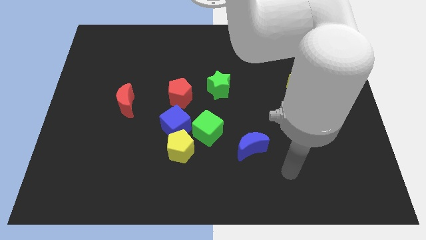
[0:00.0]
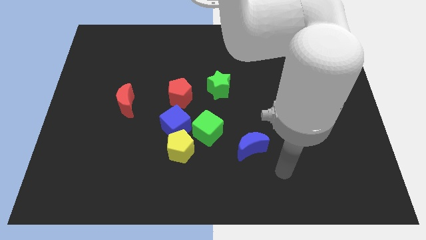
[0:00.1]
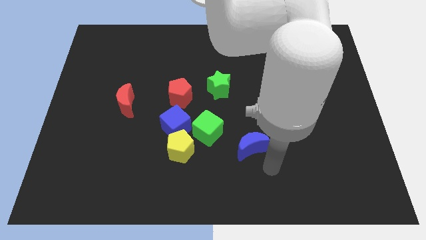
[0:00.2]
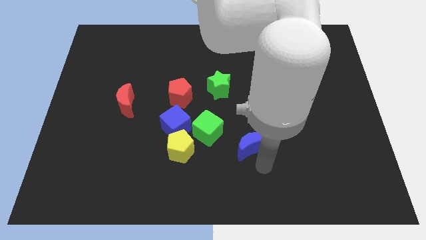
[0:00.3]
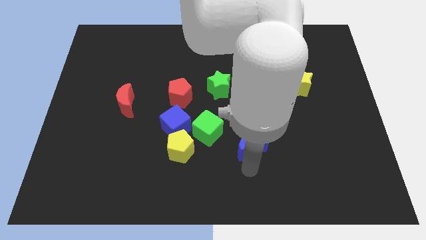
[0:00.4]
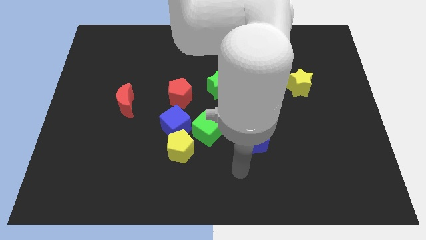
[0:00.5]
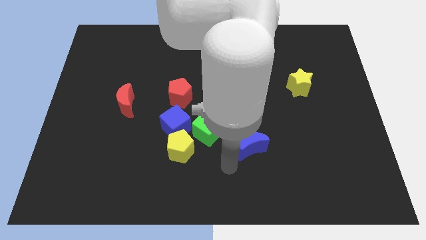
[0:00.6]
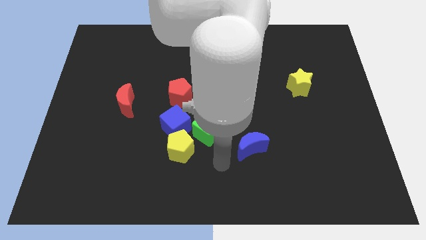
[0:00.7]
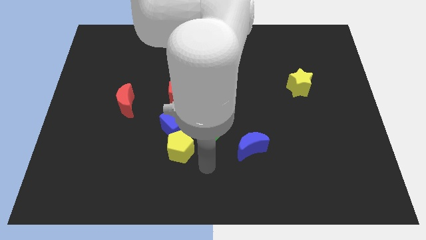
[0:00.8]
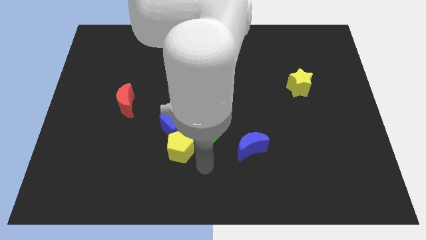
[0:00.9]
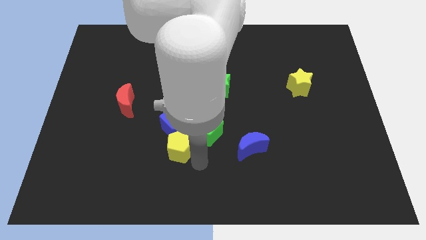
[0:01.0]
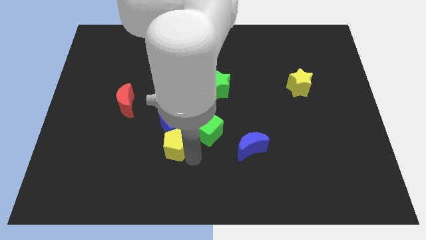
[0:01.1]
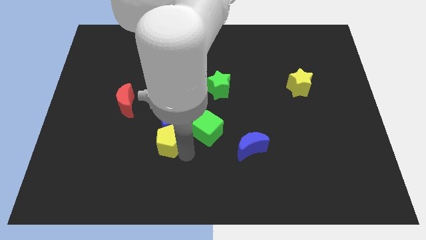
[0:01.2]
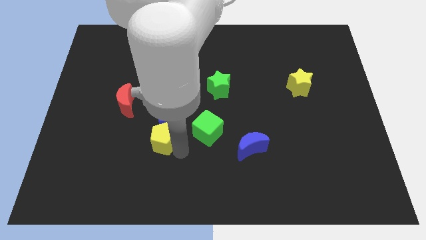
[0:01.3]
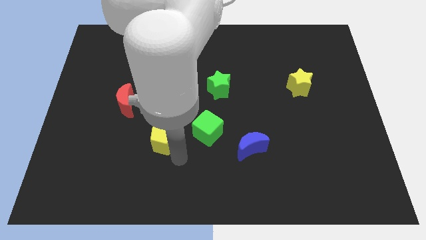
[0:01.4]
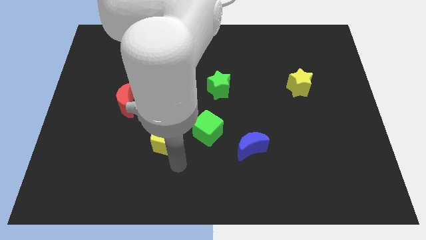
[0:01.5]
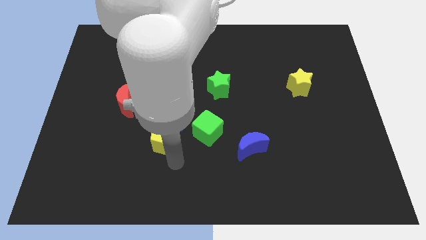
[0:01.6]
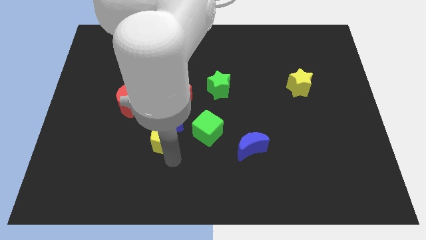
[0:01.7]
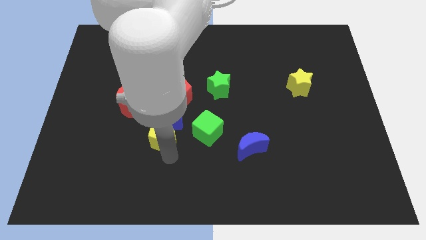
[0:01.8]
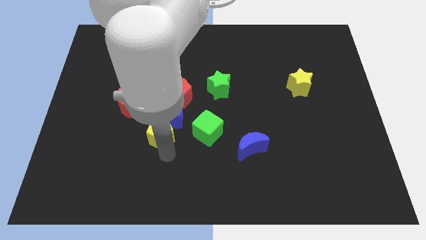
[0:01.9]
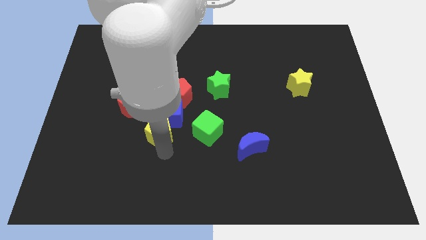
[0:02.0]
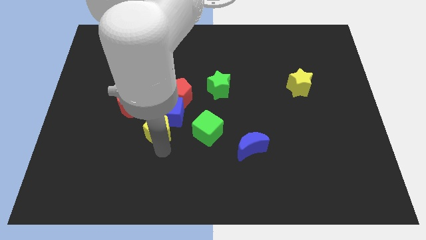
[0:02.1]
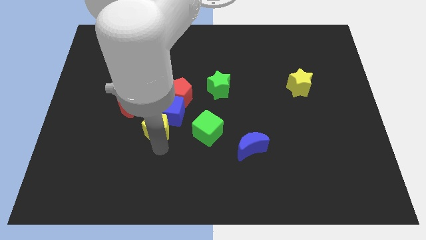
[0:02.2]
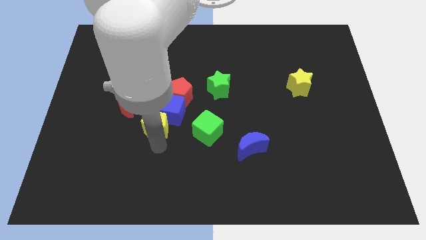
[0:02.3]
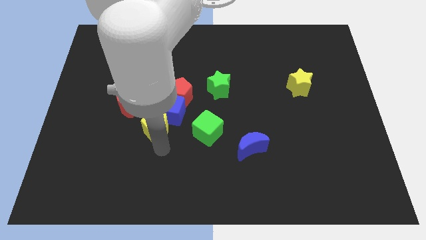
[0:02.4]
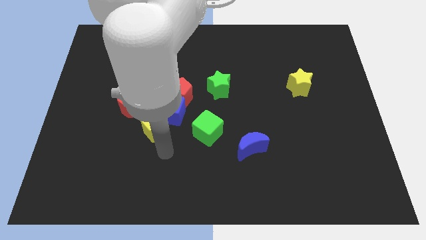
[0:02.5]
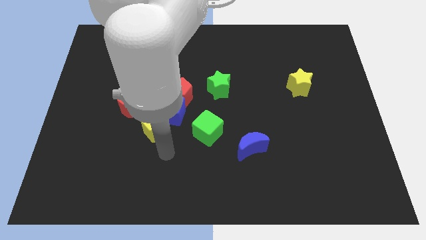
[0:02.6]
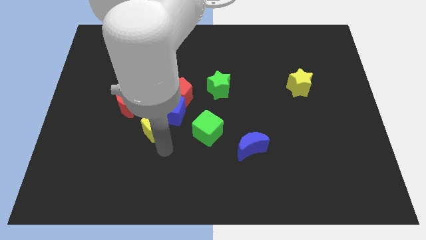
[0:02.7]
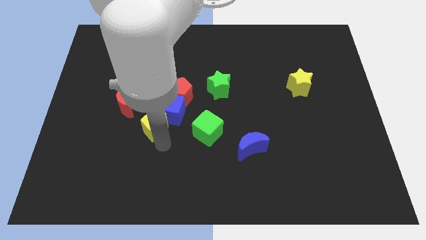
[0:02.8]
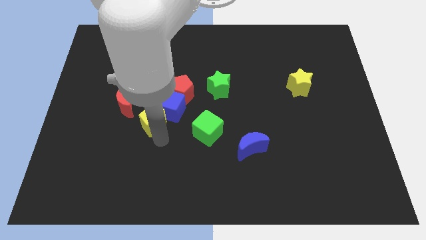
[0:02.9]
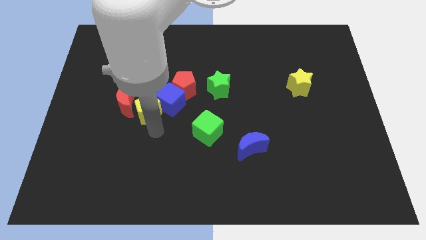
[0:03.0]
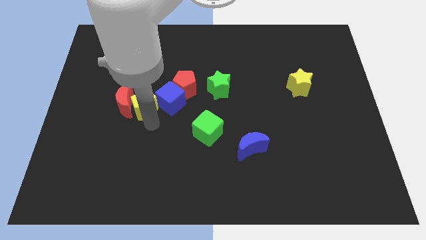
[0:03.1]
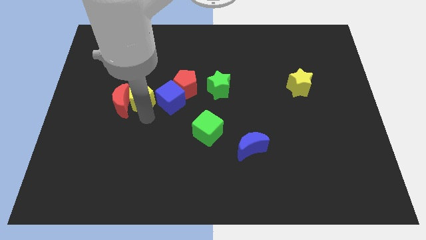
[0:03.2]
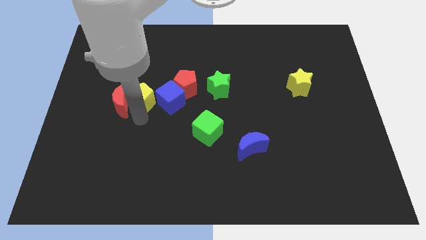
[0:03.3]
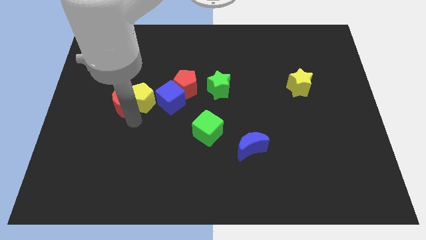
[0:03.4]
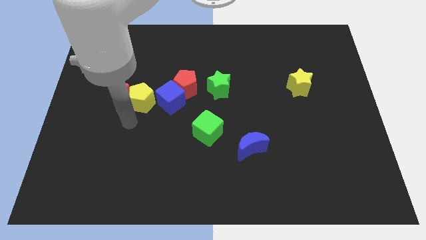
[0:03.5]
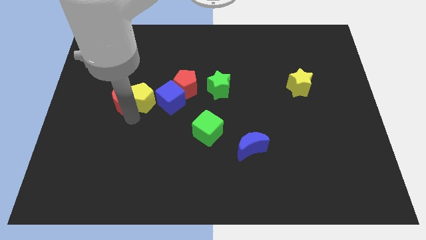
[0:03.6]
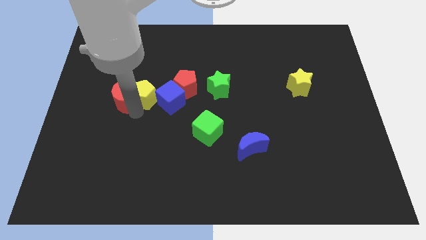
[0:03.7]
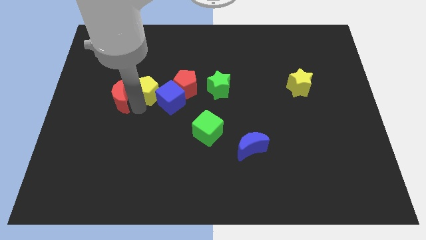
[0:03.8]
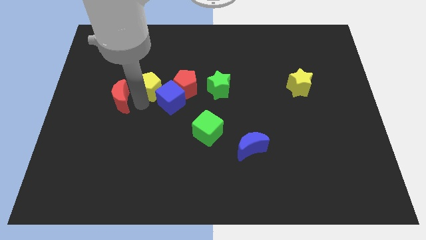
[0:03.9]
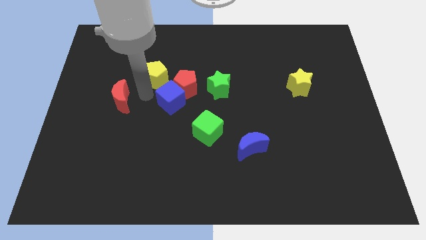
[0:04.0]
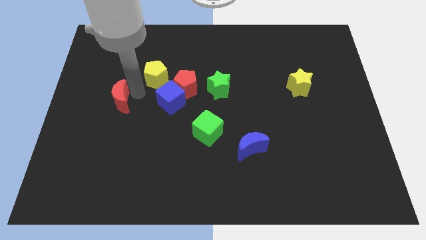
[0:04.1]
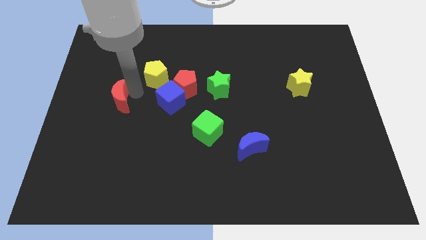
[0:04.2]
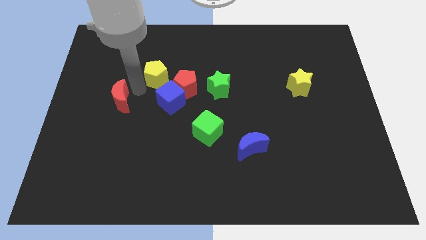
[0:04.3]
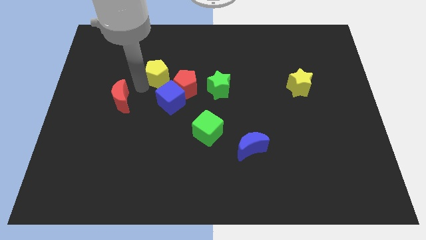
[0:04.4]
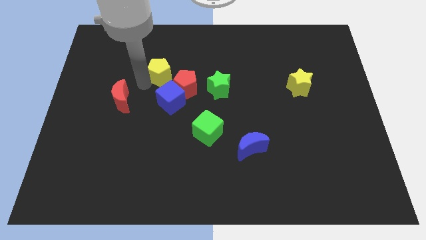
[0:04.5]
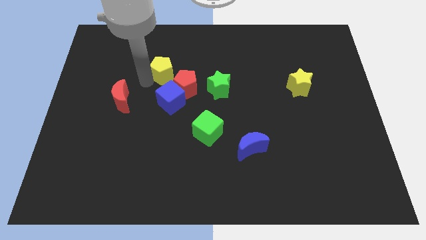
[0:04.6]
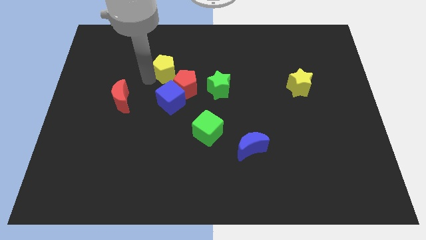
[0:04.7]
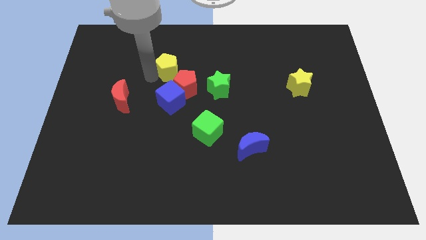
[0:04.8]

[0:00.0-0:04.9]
slide the yellow pentagon above the red pentagon

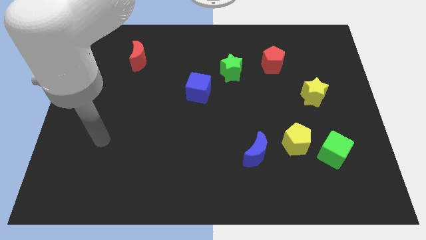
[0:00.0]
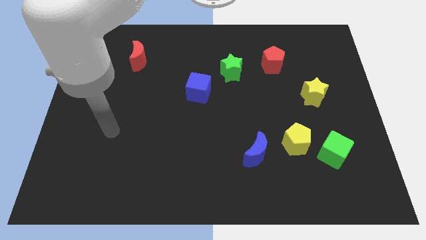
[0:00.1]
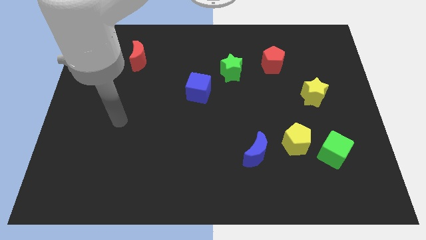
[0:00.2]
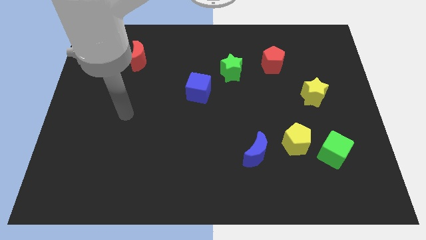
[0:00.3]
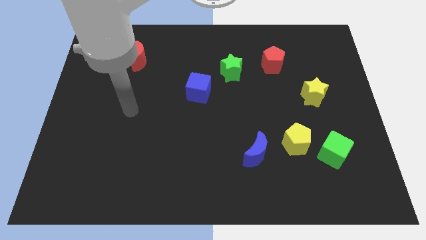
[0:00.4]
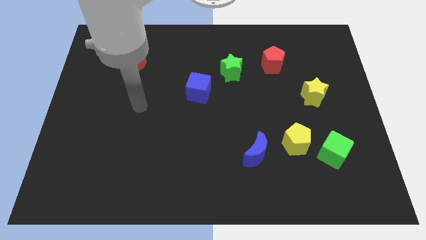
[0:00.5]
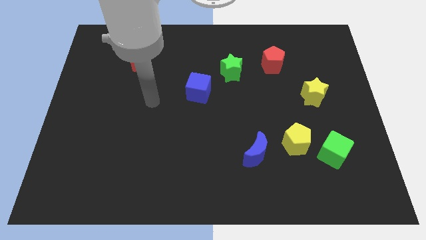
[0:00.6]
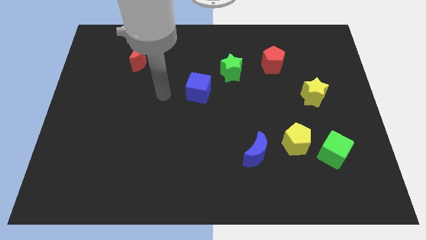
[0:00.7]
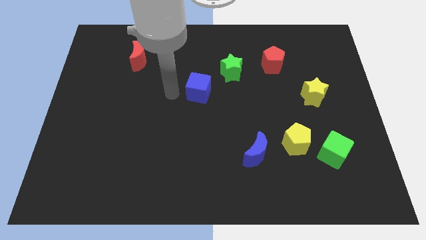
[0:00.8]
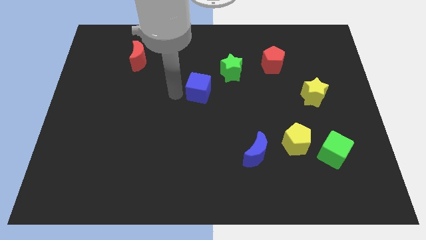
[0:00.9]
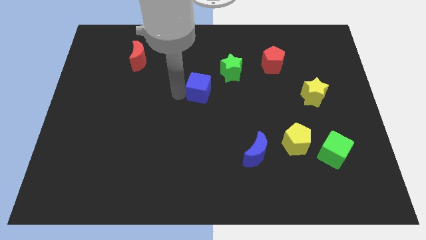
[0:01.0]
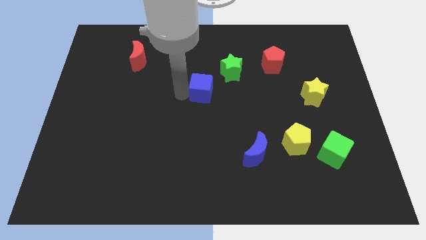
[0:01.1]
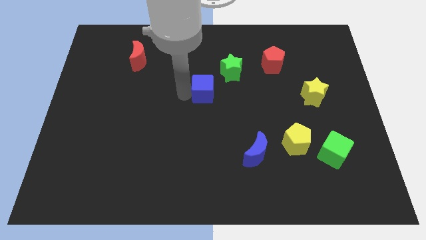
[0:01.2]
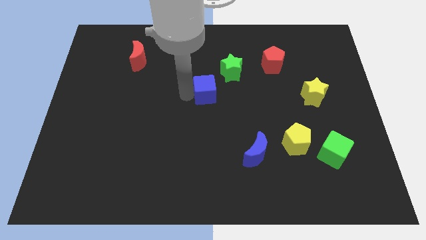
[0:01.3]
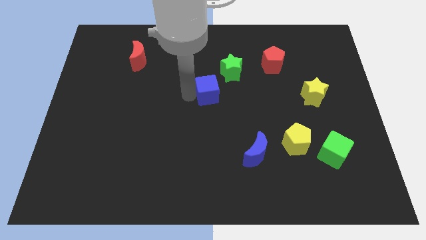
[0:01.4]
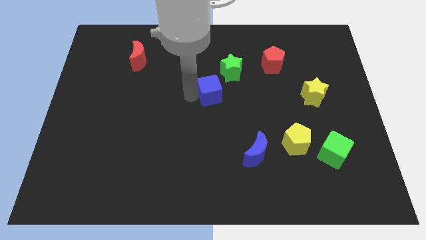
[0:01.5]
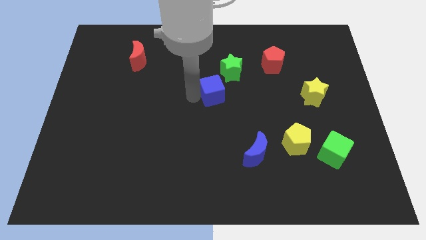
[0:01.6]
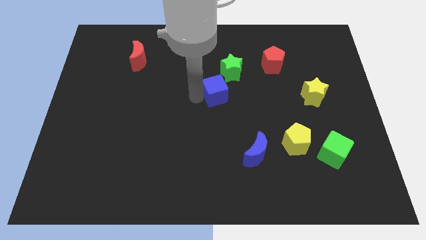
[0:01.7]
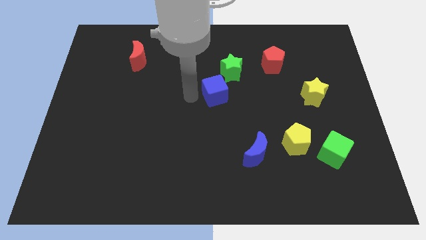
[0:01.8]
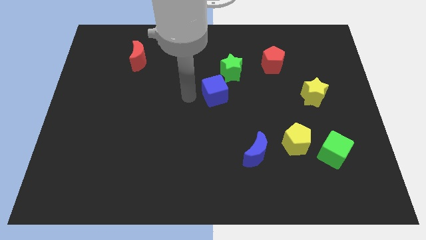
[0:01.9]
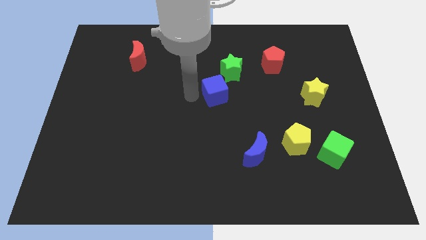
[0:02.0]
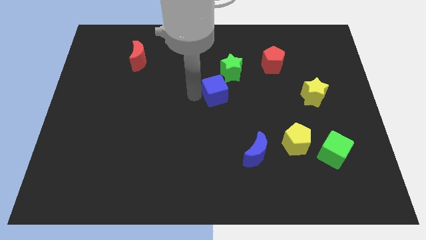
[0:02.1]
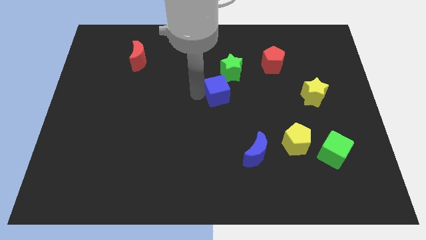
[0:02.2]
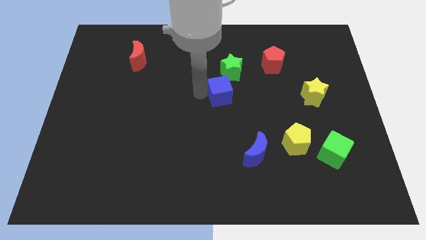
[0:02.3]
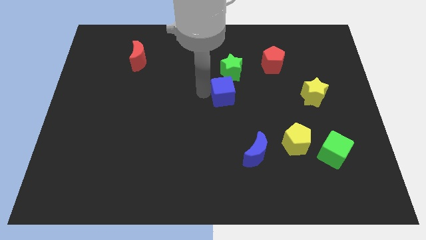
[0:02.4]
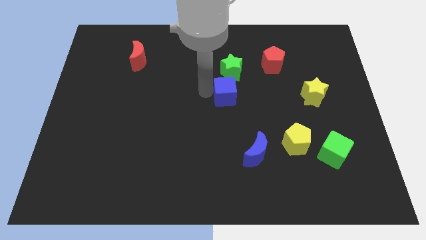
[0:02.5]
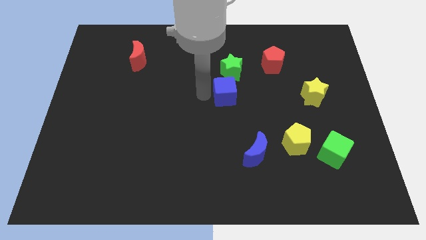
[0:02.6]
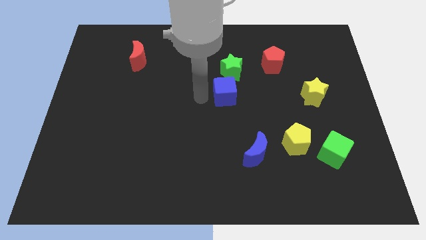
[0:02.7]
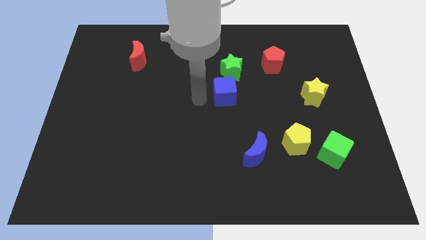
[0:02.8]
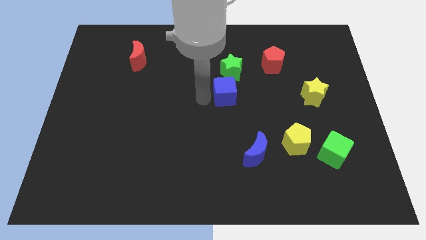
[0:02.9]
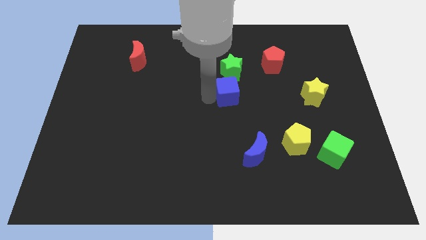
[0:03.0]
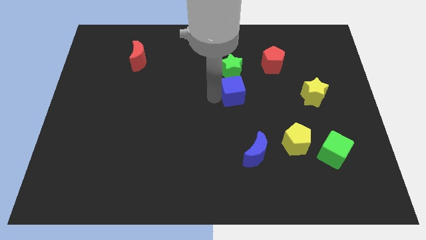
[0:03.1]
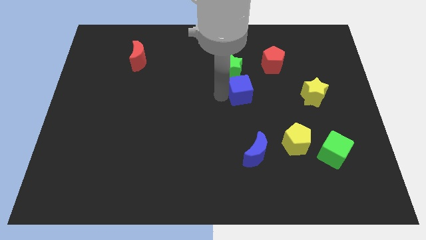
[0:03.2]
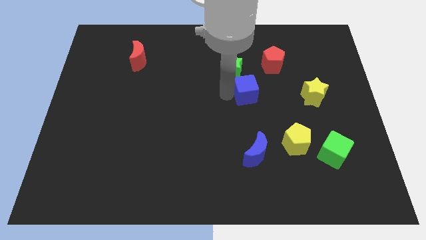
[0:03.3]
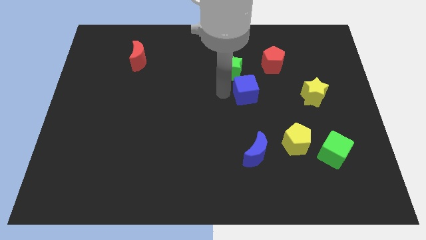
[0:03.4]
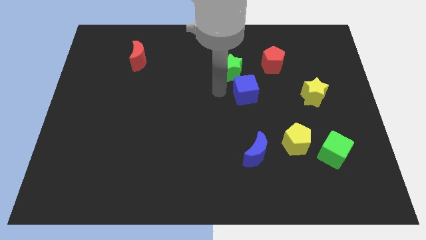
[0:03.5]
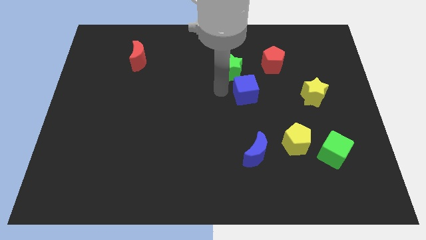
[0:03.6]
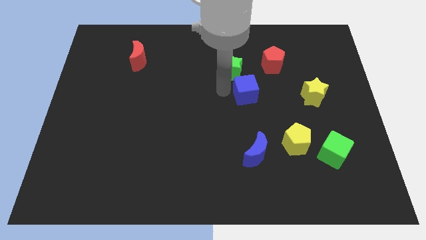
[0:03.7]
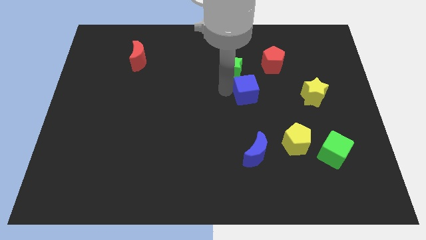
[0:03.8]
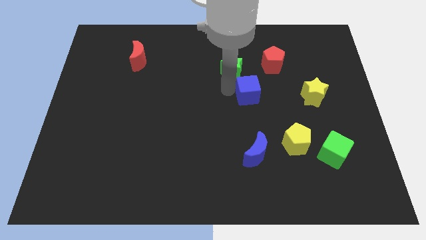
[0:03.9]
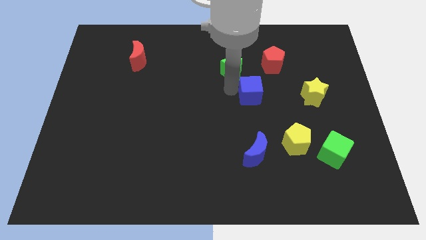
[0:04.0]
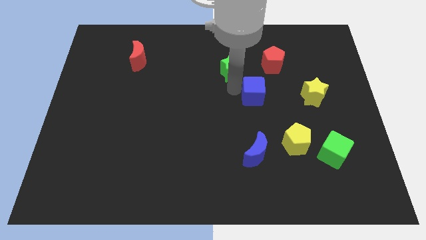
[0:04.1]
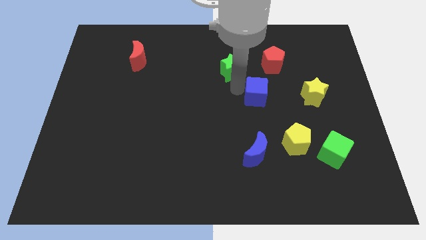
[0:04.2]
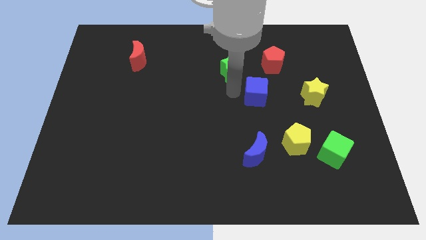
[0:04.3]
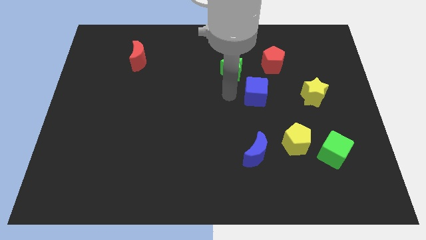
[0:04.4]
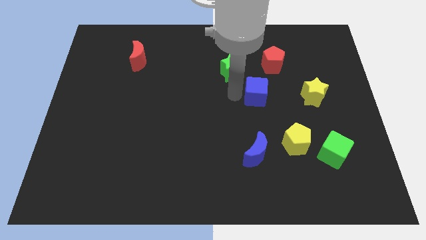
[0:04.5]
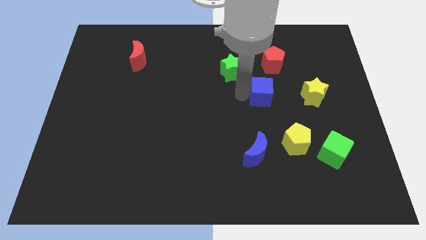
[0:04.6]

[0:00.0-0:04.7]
push the blue cube to the bottom side of the red pentagon
